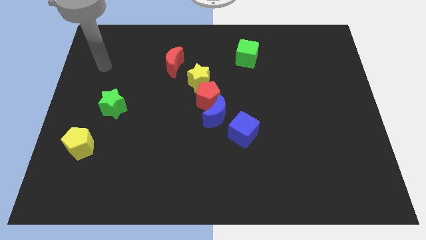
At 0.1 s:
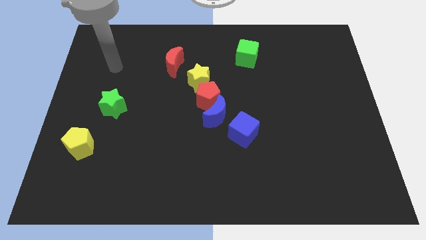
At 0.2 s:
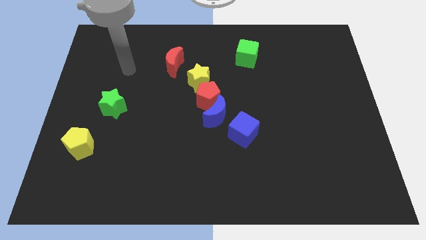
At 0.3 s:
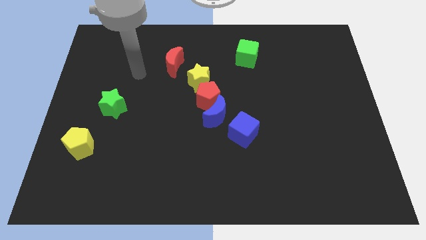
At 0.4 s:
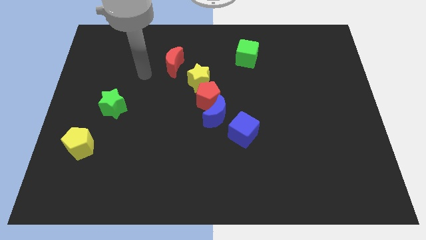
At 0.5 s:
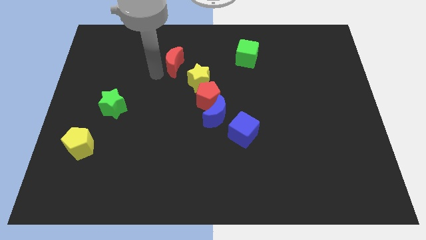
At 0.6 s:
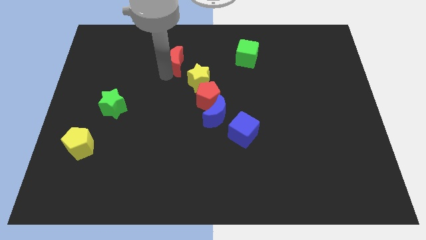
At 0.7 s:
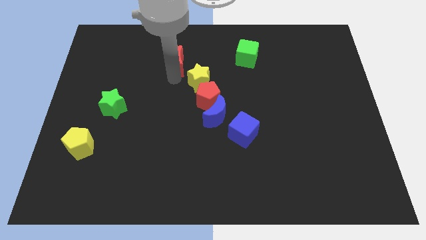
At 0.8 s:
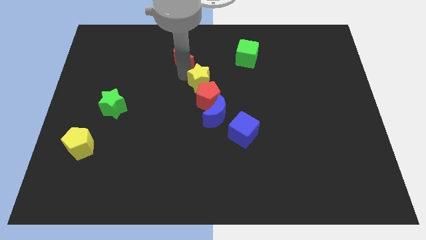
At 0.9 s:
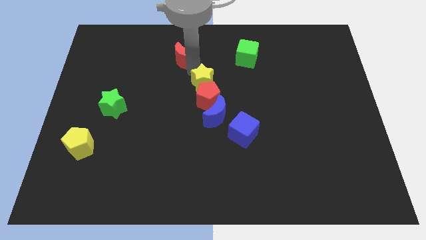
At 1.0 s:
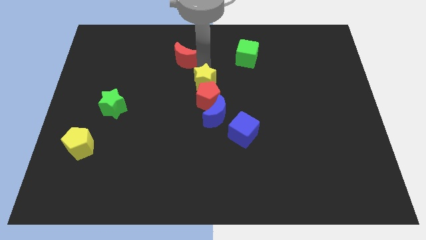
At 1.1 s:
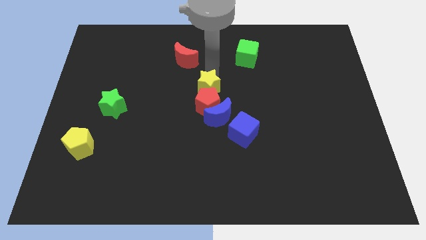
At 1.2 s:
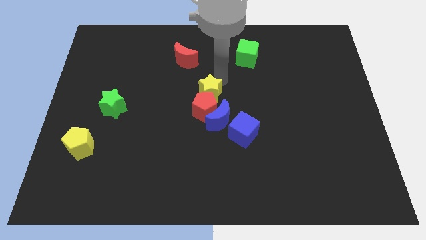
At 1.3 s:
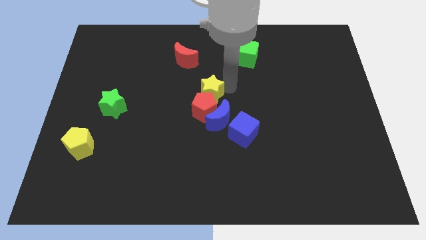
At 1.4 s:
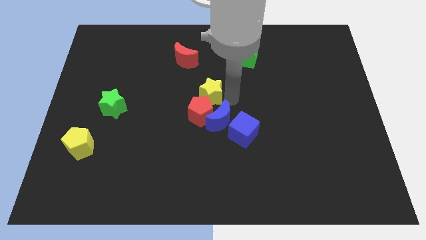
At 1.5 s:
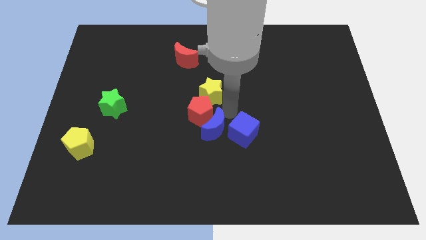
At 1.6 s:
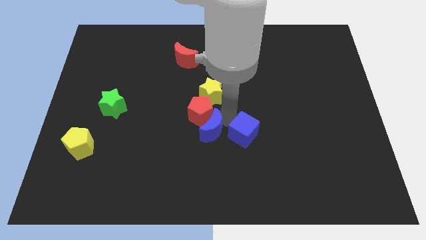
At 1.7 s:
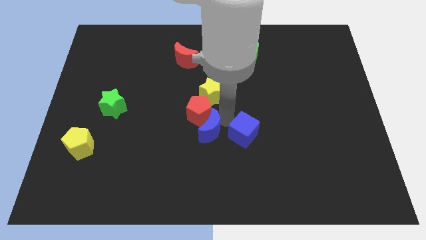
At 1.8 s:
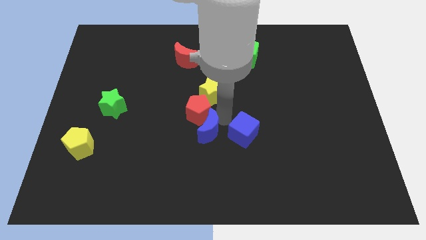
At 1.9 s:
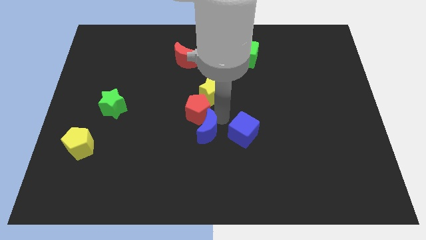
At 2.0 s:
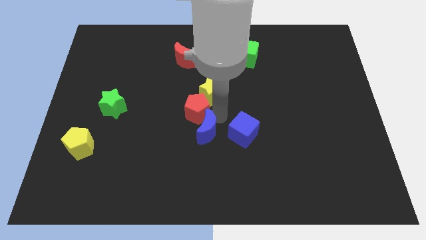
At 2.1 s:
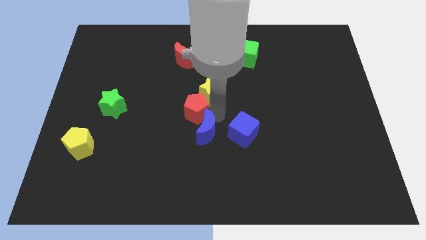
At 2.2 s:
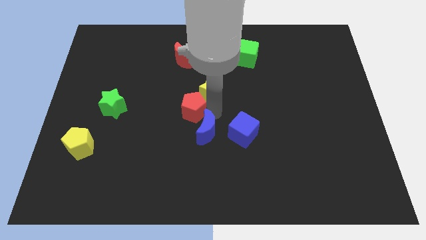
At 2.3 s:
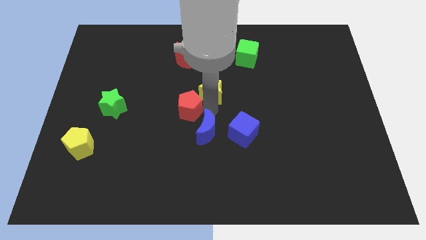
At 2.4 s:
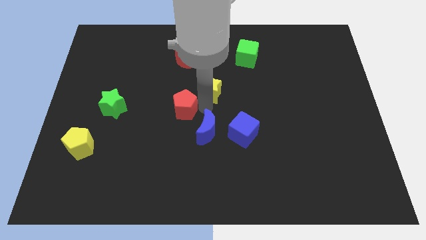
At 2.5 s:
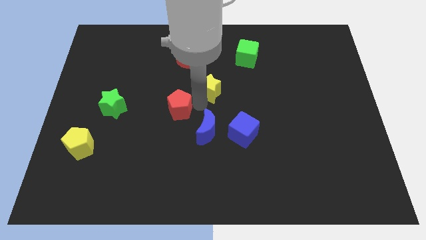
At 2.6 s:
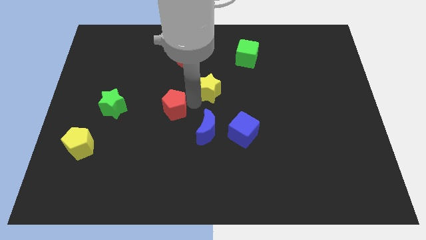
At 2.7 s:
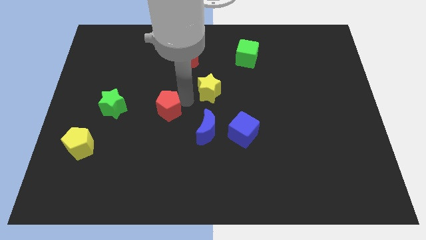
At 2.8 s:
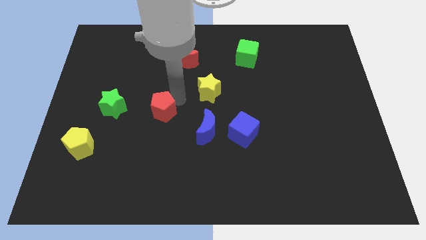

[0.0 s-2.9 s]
pull the red pentagon apart from the blue moon and yellow star

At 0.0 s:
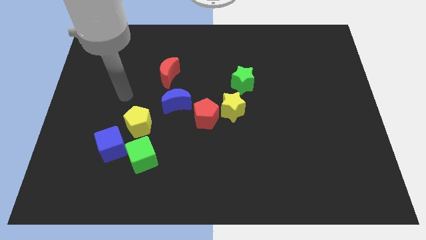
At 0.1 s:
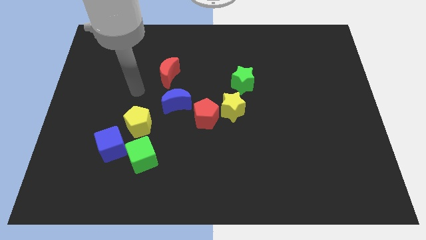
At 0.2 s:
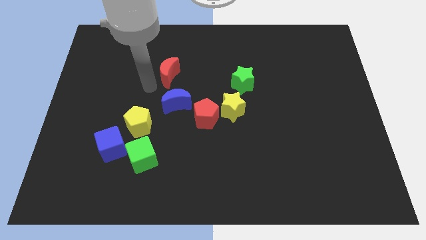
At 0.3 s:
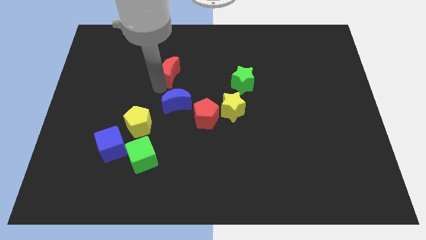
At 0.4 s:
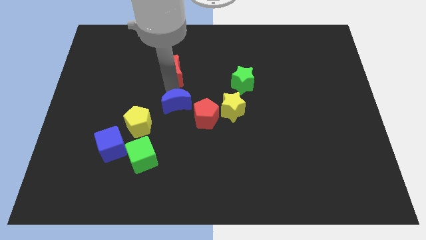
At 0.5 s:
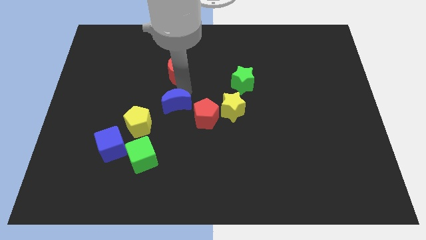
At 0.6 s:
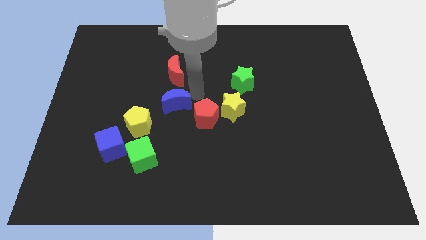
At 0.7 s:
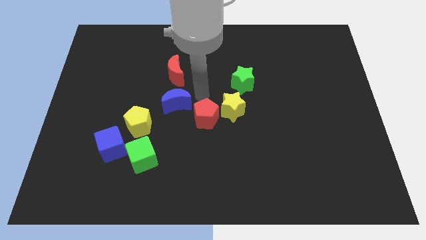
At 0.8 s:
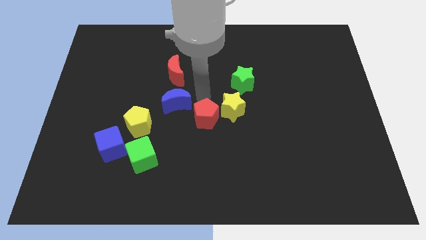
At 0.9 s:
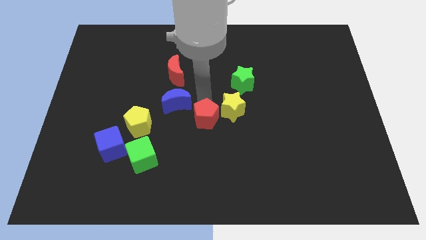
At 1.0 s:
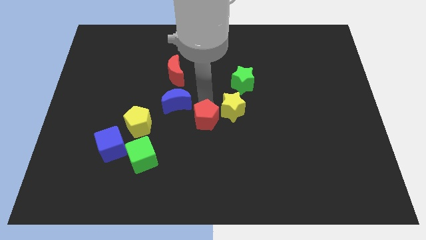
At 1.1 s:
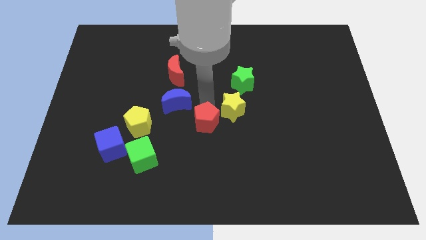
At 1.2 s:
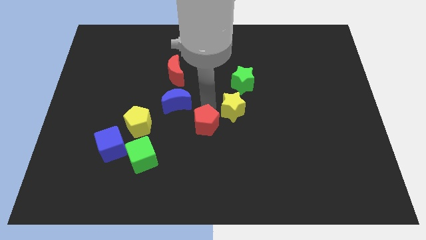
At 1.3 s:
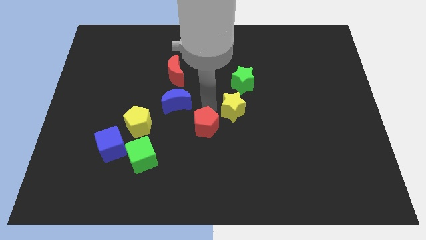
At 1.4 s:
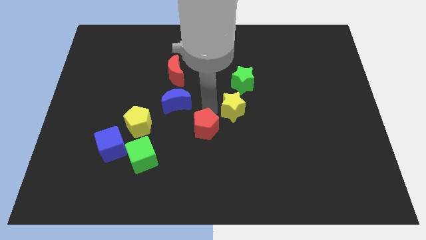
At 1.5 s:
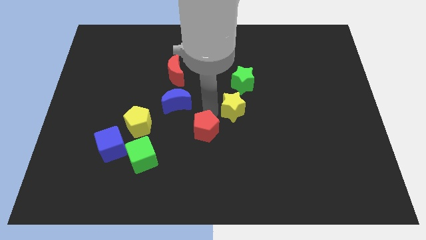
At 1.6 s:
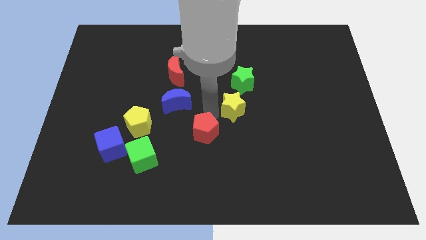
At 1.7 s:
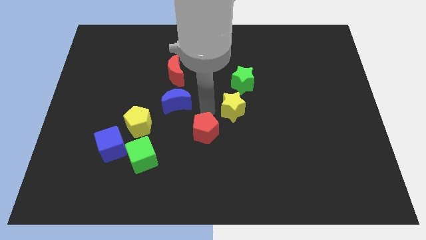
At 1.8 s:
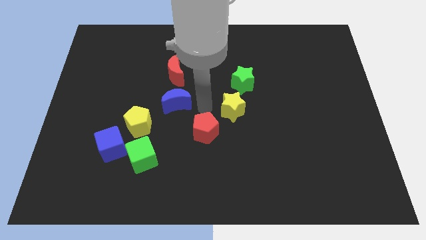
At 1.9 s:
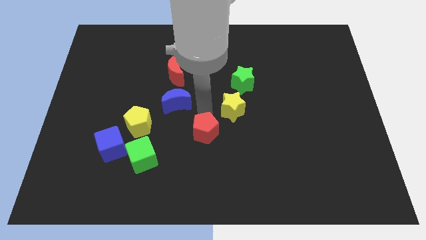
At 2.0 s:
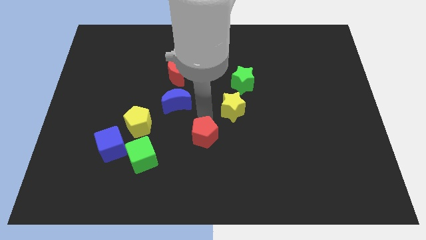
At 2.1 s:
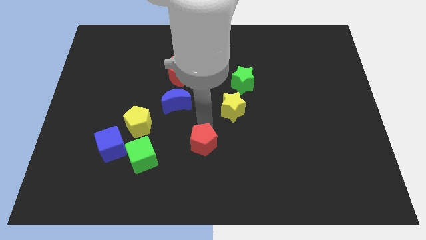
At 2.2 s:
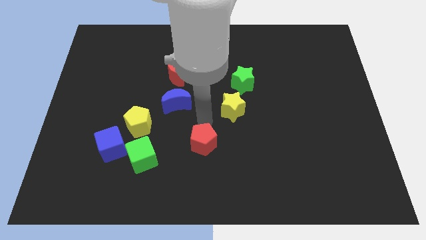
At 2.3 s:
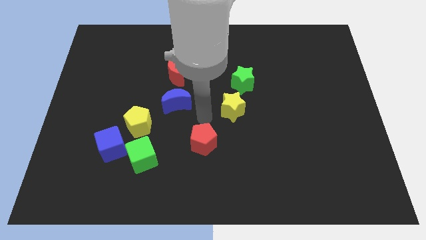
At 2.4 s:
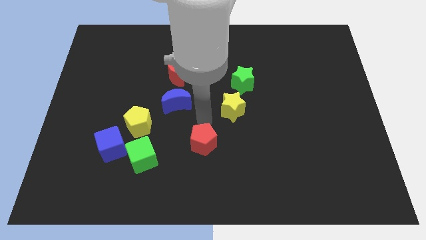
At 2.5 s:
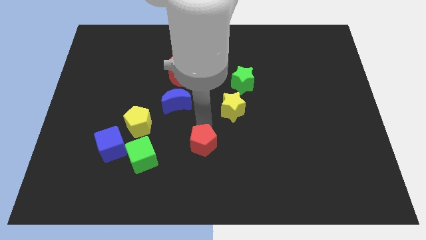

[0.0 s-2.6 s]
pull the red pentagon apart from the yellow star and blue moon

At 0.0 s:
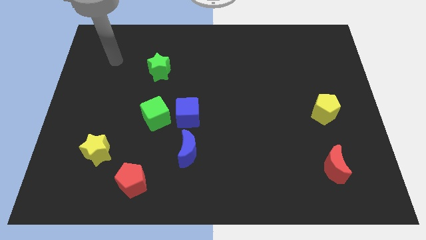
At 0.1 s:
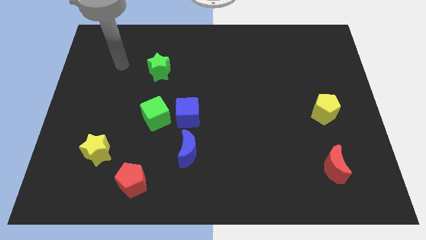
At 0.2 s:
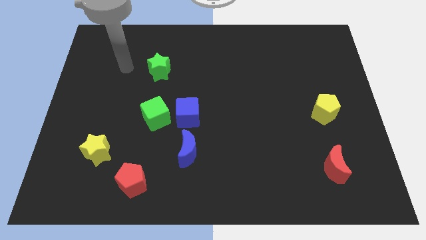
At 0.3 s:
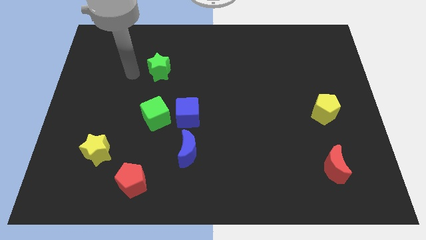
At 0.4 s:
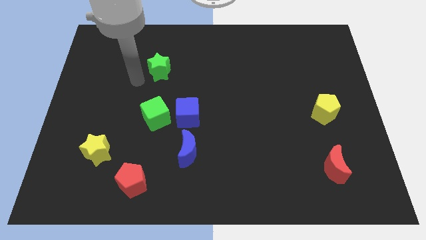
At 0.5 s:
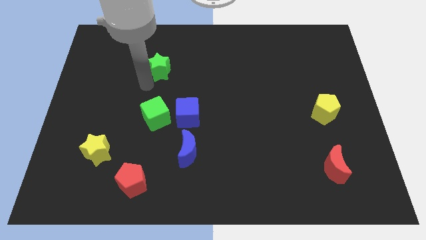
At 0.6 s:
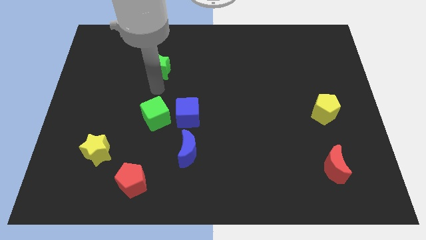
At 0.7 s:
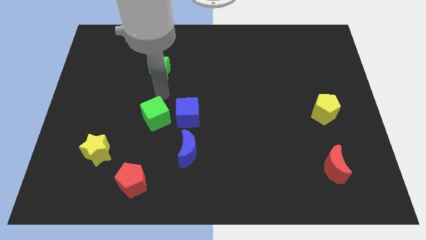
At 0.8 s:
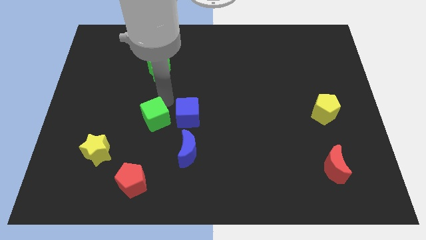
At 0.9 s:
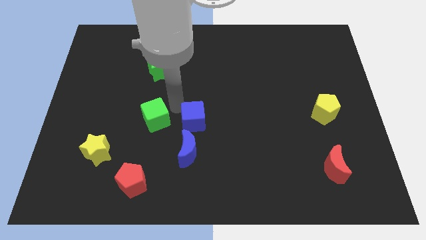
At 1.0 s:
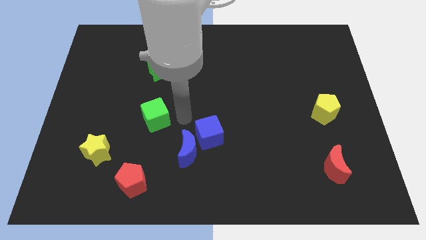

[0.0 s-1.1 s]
separate the green cube from the blue cube

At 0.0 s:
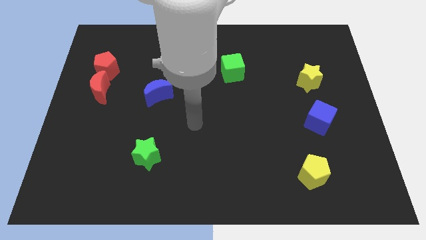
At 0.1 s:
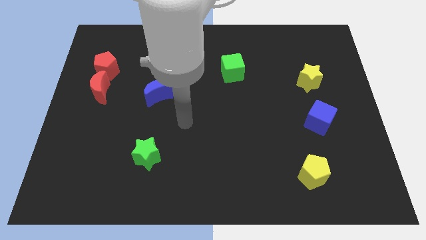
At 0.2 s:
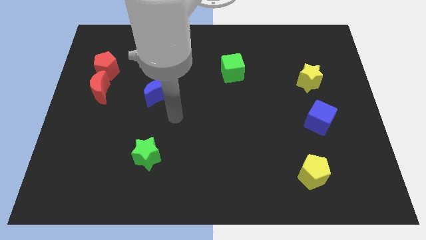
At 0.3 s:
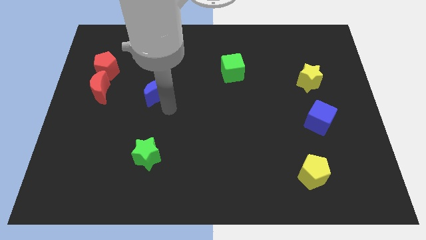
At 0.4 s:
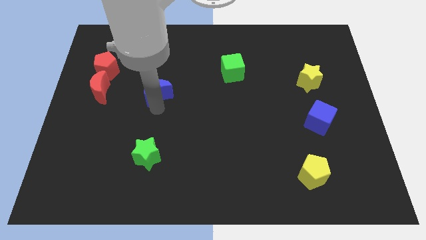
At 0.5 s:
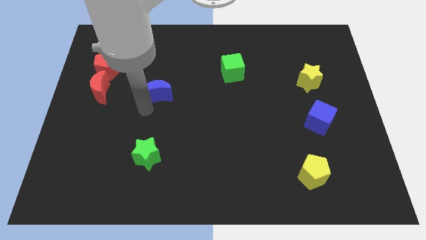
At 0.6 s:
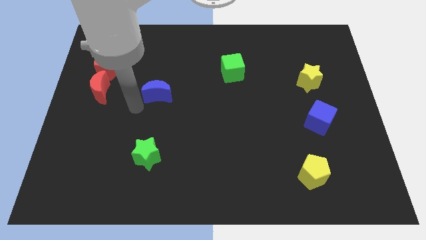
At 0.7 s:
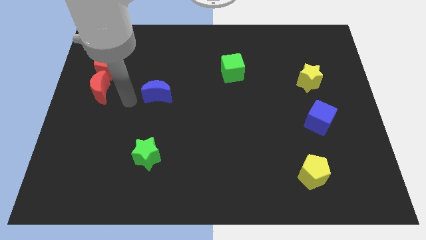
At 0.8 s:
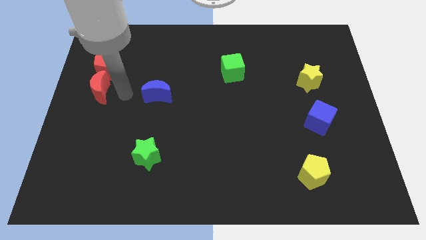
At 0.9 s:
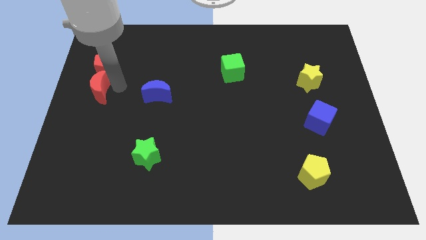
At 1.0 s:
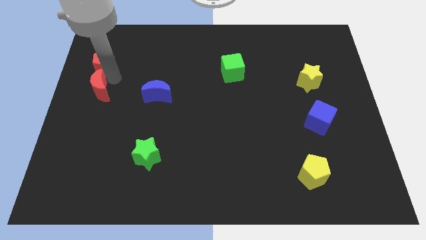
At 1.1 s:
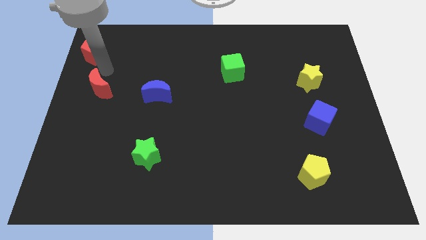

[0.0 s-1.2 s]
pull the red moon apart from the red pentagon

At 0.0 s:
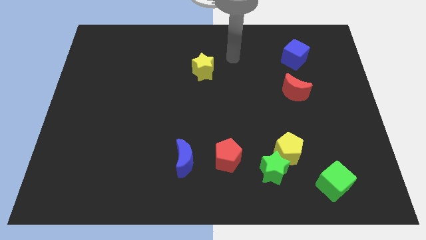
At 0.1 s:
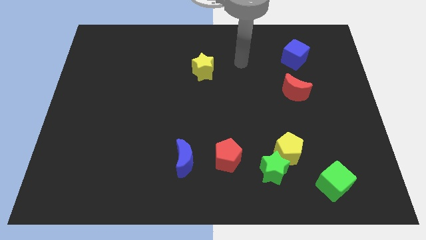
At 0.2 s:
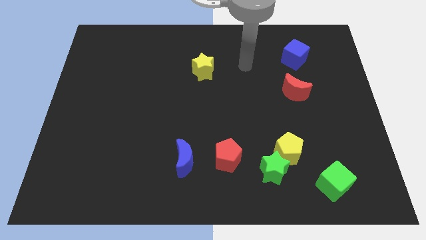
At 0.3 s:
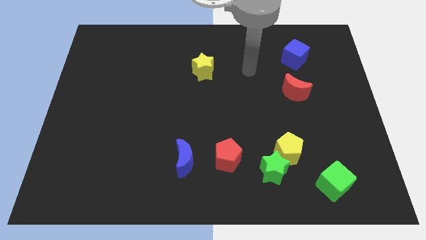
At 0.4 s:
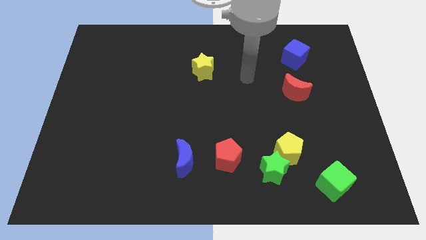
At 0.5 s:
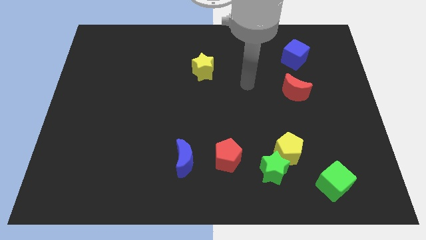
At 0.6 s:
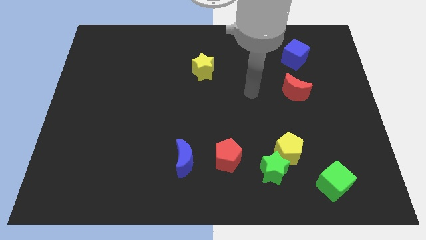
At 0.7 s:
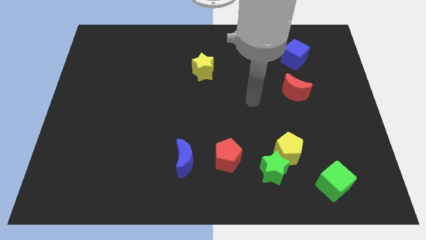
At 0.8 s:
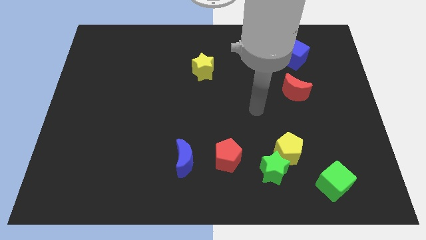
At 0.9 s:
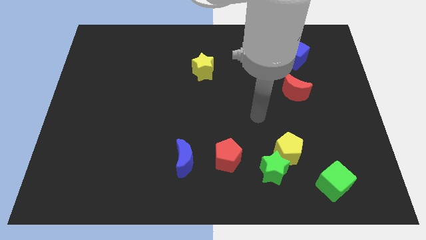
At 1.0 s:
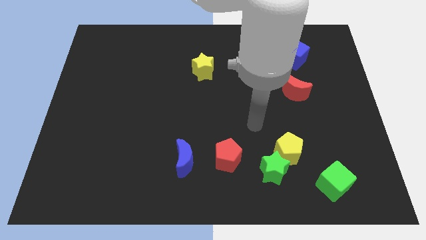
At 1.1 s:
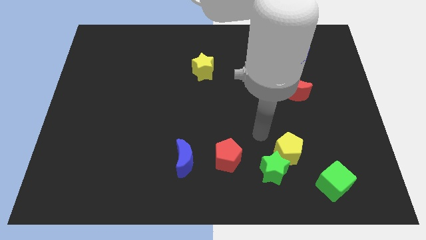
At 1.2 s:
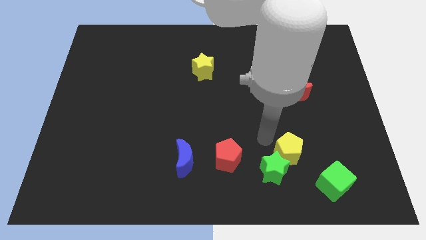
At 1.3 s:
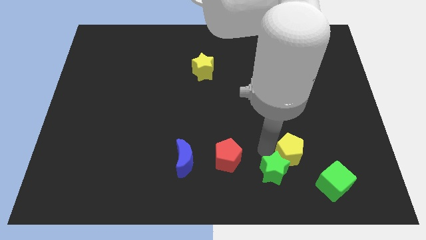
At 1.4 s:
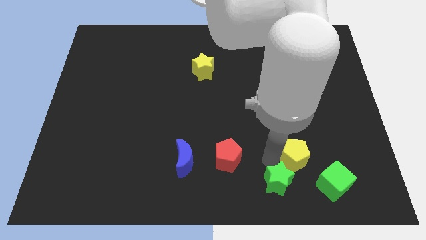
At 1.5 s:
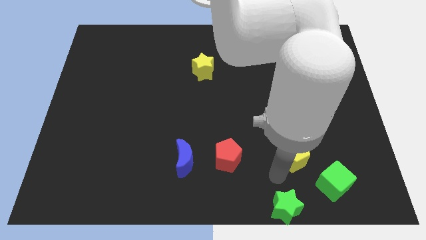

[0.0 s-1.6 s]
pull the yellow pentagon apart from the green star

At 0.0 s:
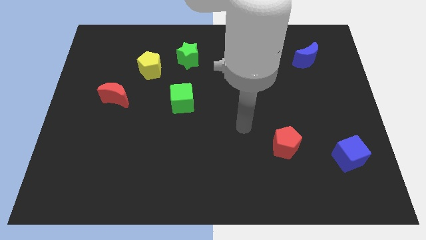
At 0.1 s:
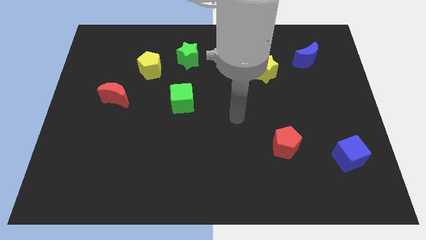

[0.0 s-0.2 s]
move the green star away from the yellow pentagon
